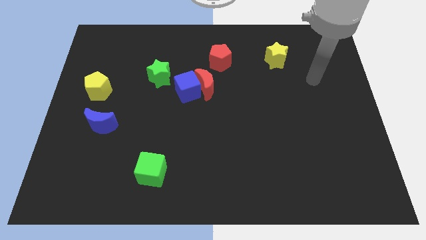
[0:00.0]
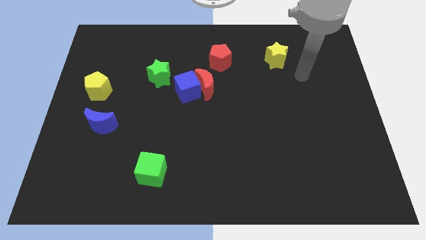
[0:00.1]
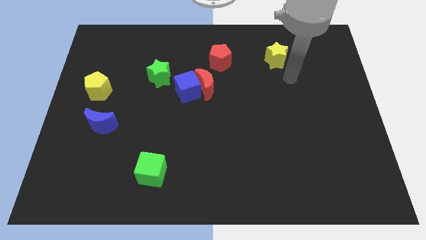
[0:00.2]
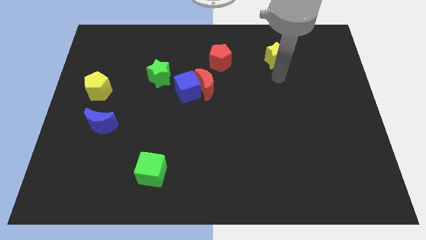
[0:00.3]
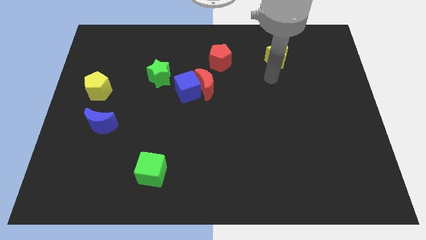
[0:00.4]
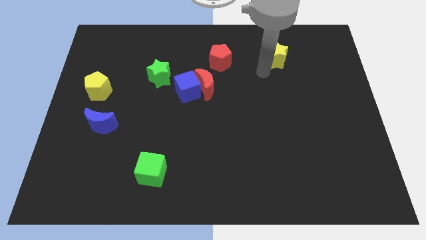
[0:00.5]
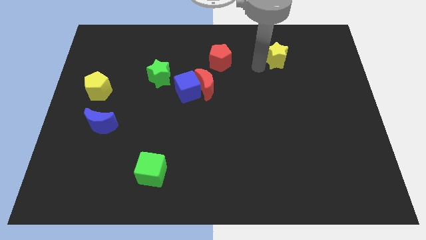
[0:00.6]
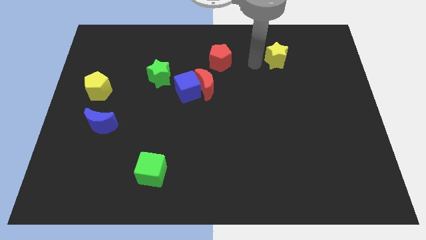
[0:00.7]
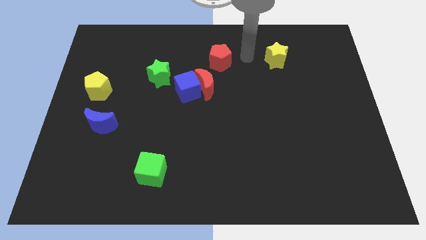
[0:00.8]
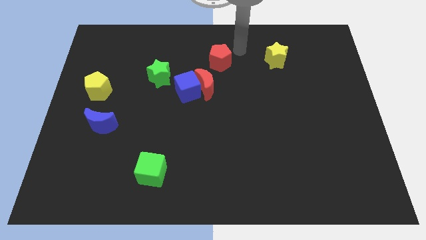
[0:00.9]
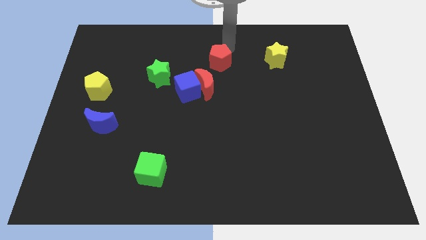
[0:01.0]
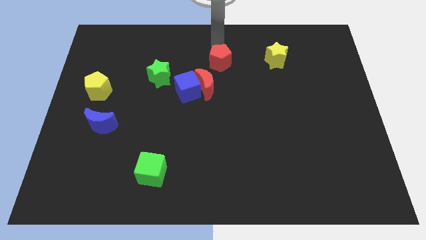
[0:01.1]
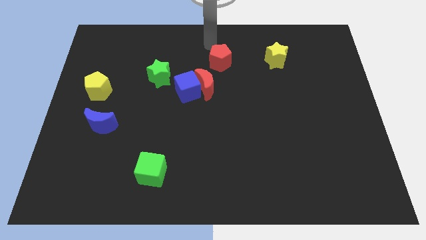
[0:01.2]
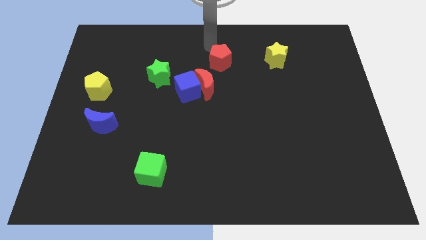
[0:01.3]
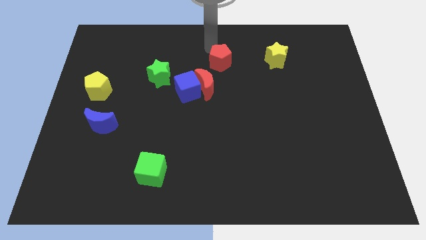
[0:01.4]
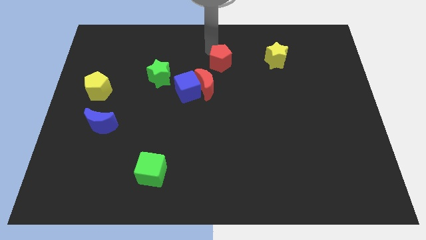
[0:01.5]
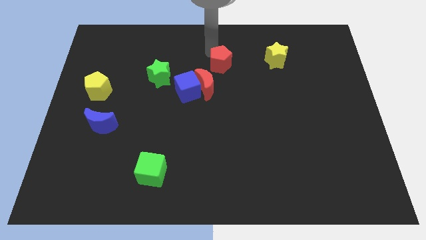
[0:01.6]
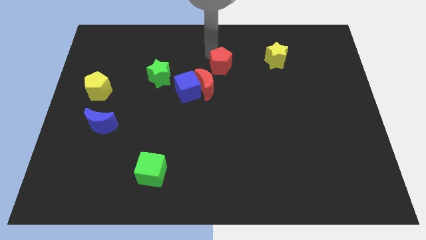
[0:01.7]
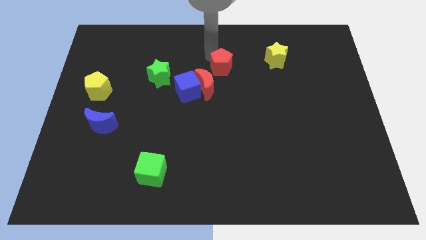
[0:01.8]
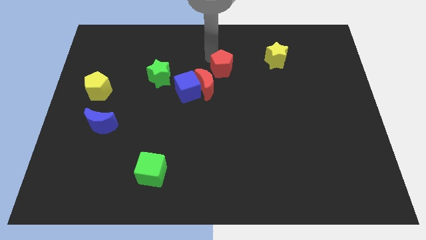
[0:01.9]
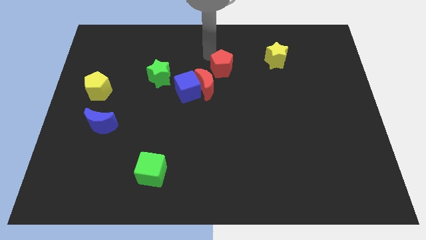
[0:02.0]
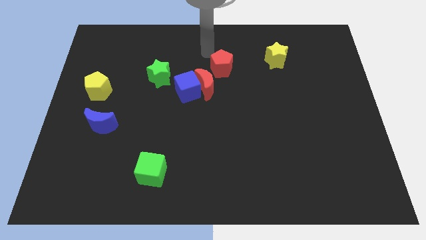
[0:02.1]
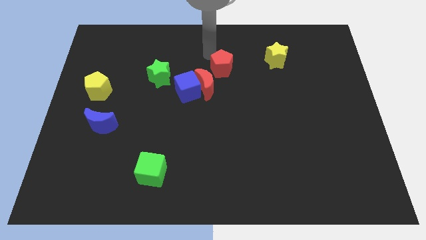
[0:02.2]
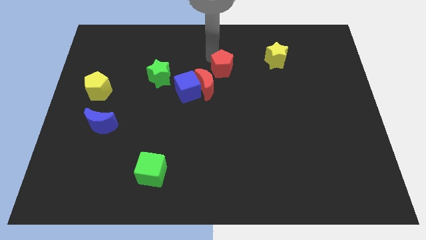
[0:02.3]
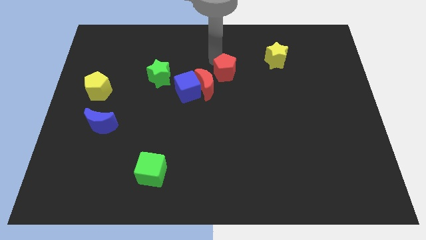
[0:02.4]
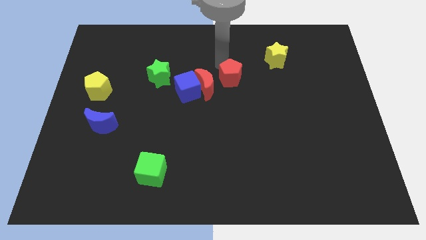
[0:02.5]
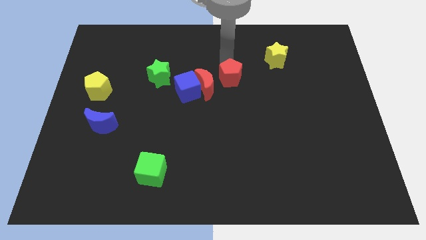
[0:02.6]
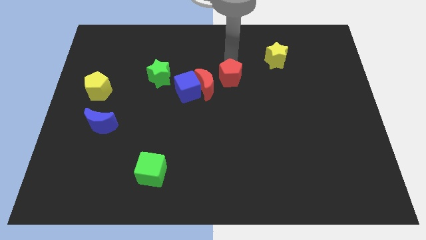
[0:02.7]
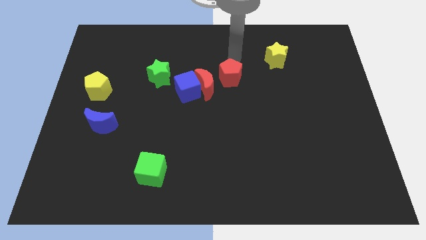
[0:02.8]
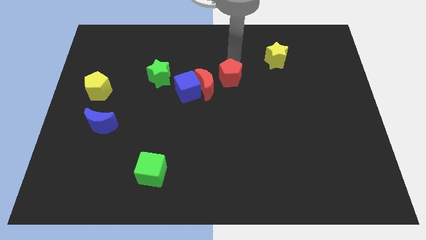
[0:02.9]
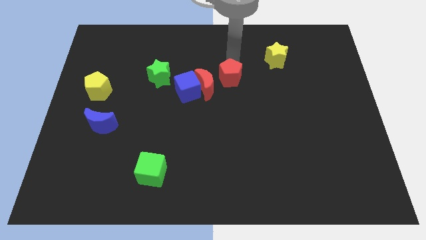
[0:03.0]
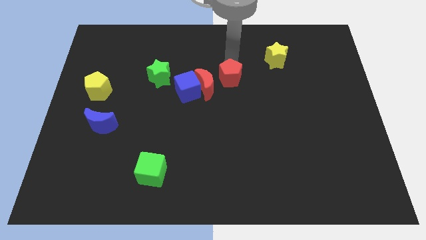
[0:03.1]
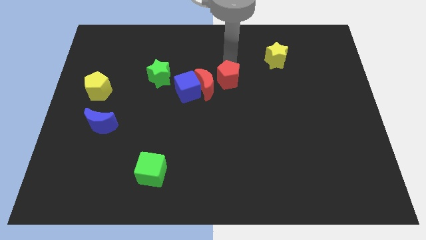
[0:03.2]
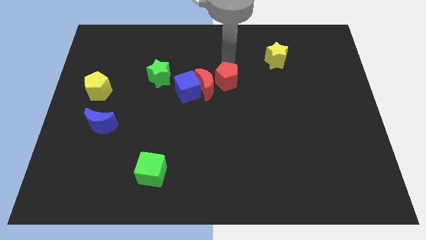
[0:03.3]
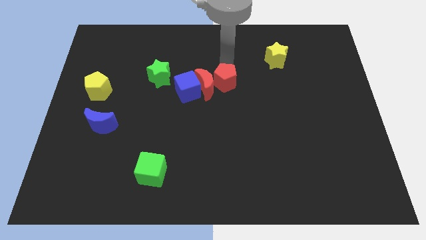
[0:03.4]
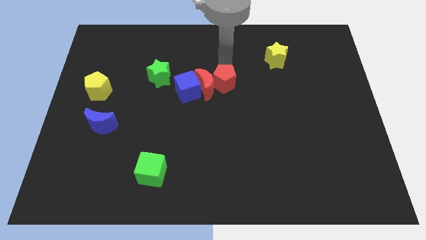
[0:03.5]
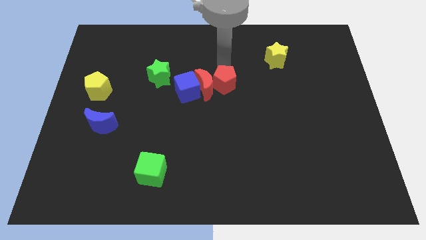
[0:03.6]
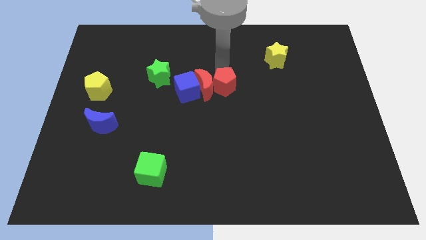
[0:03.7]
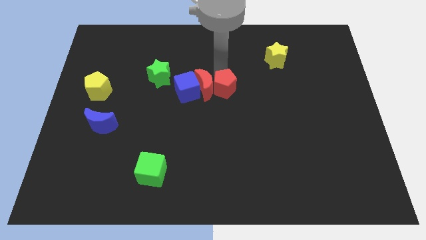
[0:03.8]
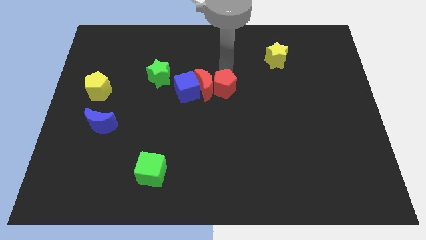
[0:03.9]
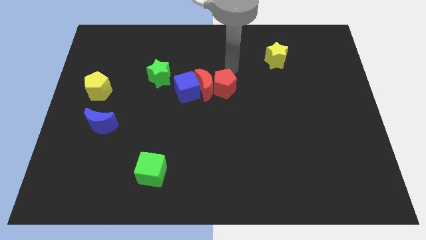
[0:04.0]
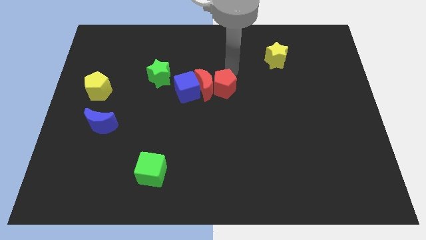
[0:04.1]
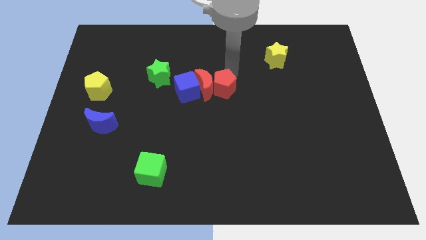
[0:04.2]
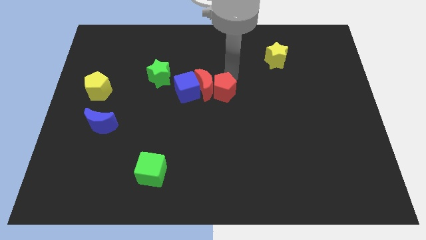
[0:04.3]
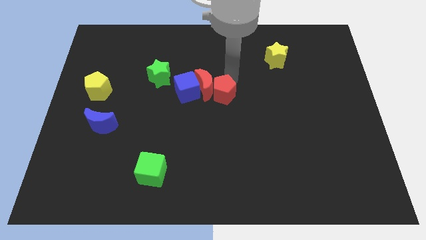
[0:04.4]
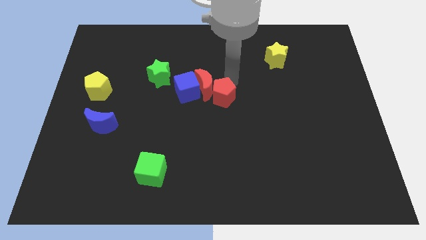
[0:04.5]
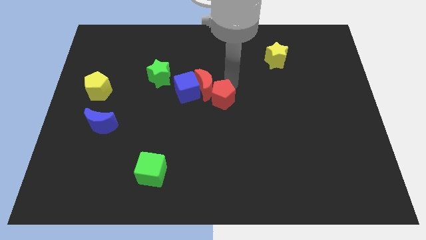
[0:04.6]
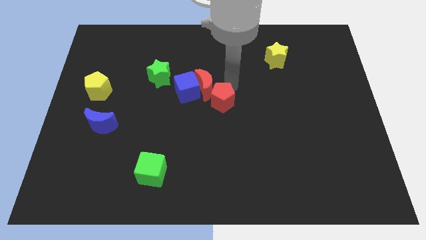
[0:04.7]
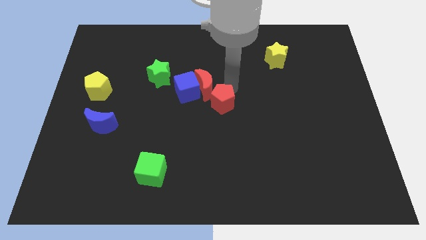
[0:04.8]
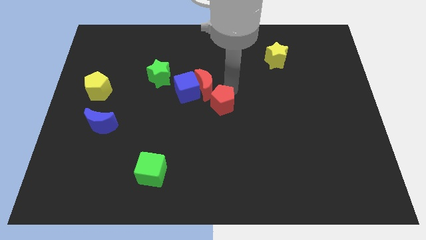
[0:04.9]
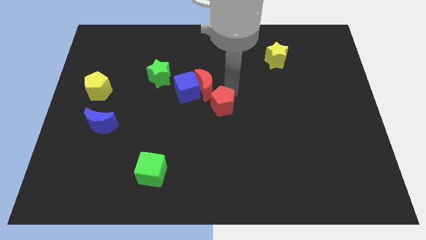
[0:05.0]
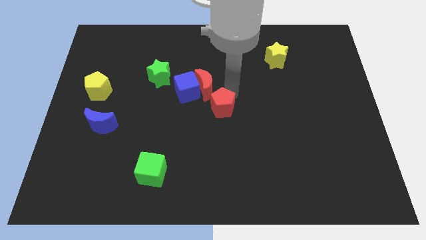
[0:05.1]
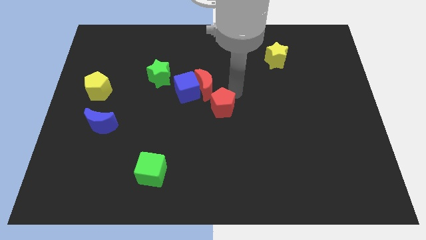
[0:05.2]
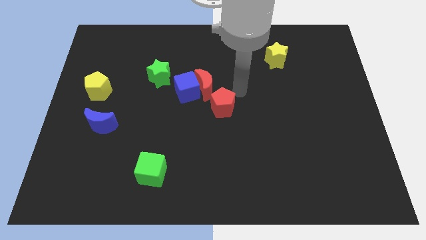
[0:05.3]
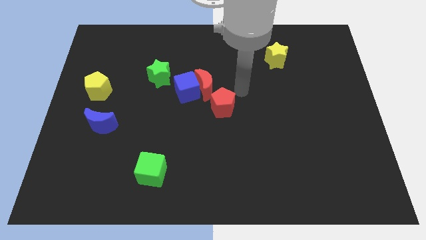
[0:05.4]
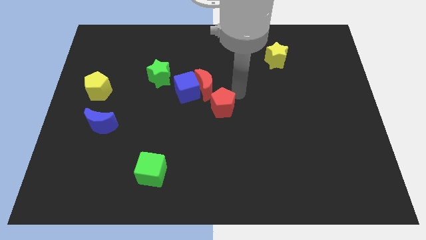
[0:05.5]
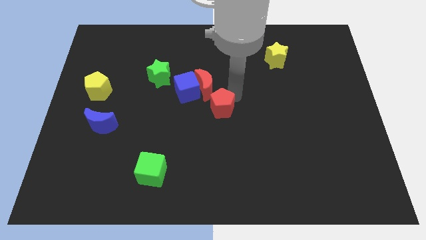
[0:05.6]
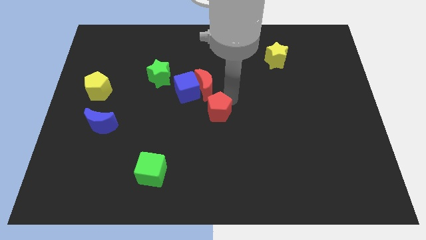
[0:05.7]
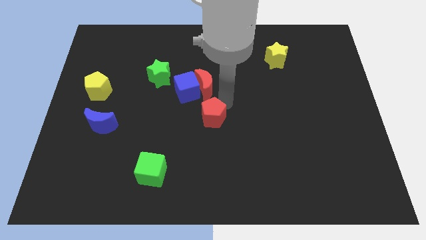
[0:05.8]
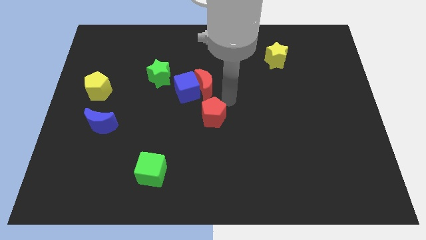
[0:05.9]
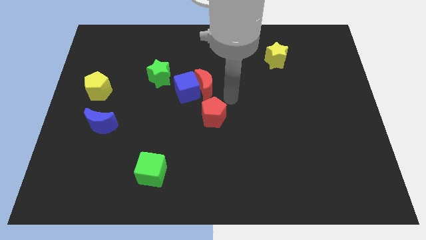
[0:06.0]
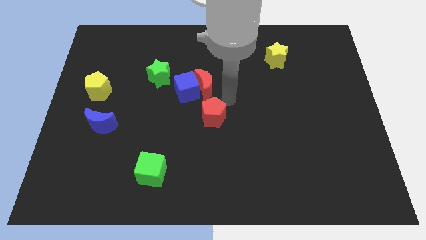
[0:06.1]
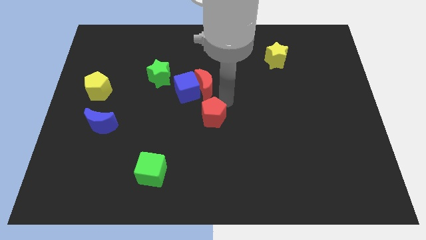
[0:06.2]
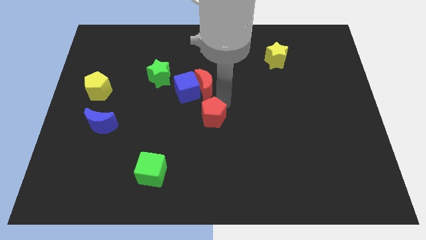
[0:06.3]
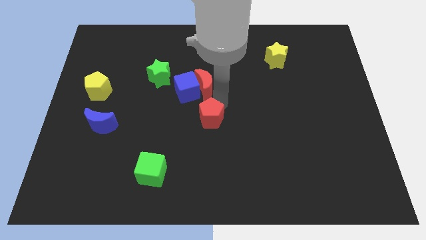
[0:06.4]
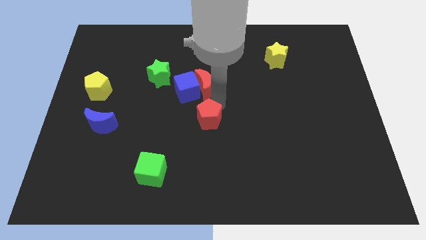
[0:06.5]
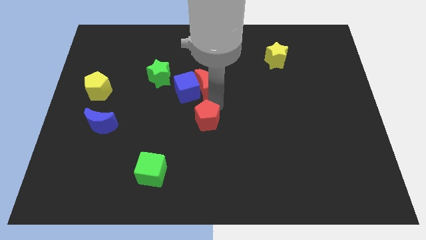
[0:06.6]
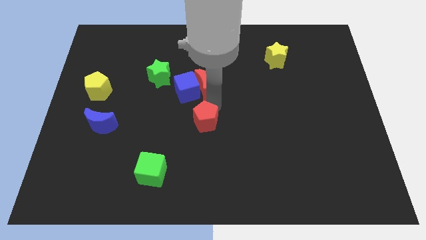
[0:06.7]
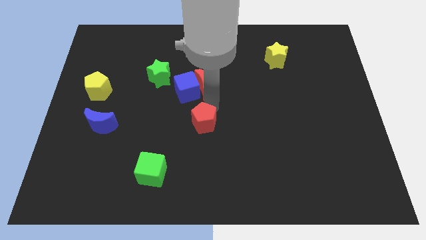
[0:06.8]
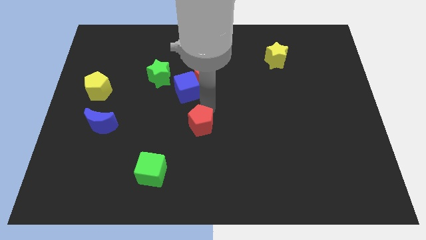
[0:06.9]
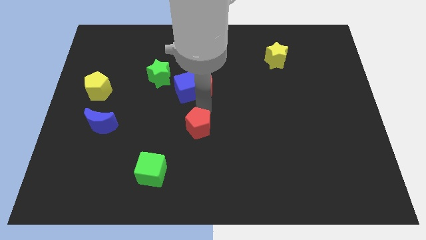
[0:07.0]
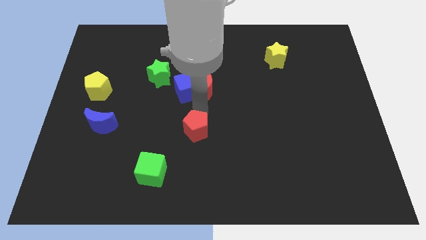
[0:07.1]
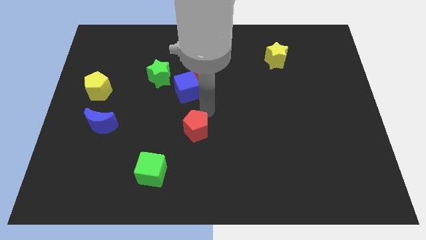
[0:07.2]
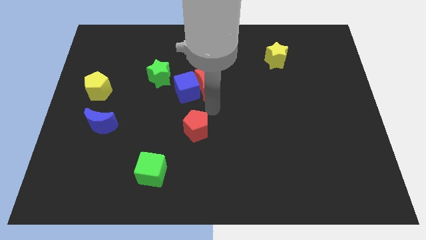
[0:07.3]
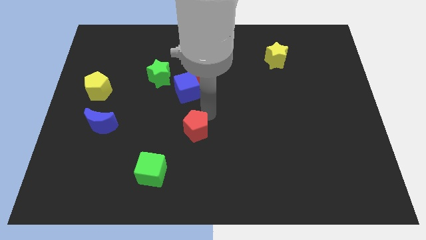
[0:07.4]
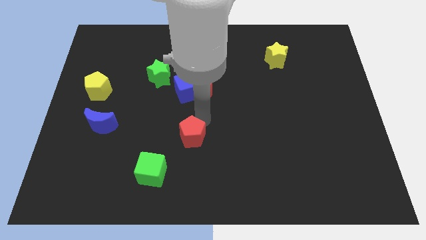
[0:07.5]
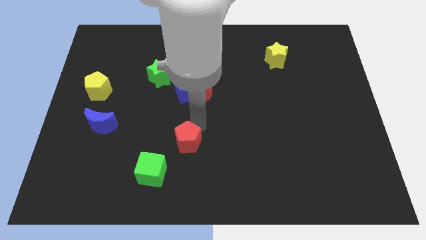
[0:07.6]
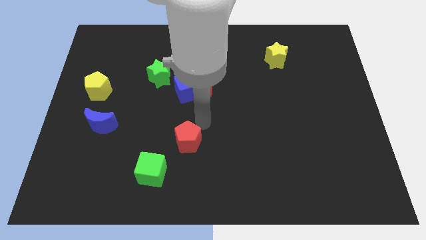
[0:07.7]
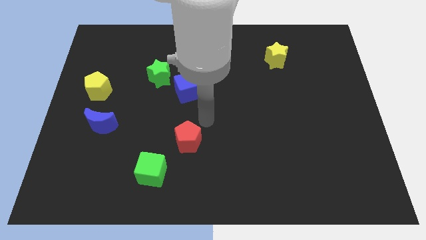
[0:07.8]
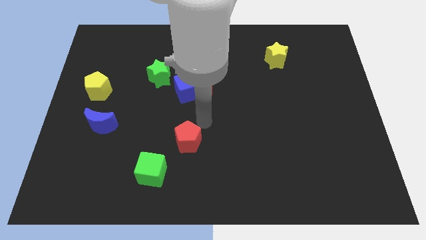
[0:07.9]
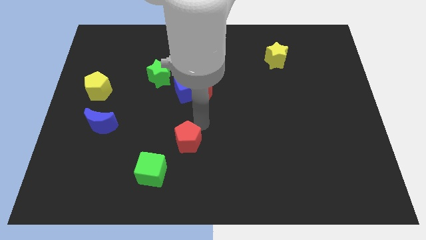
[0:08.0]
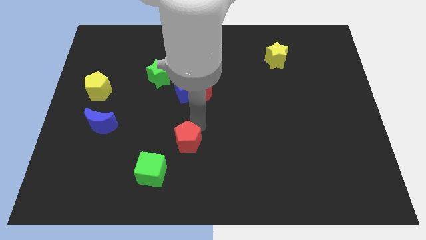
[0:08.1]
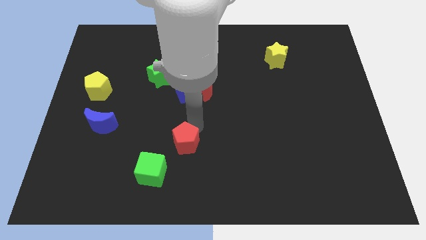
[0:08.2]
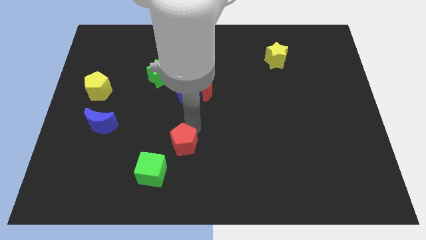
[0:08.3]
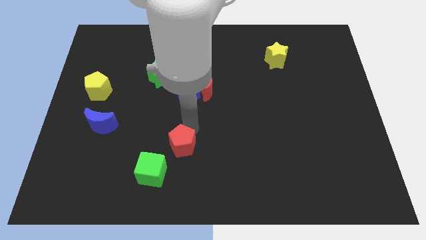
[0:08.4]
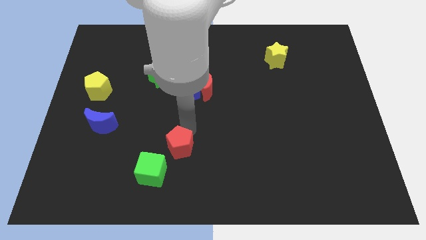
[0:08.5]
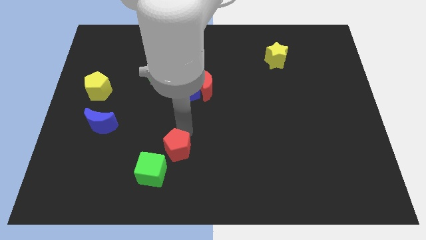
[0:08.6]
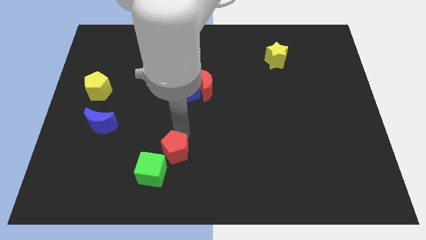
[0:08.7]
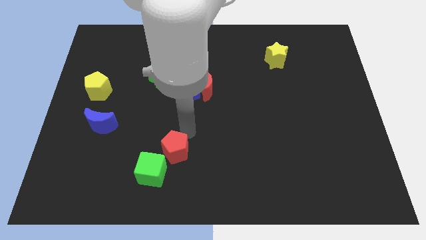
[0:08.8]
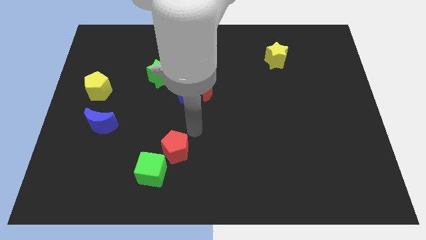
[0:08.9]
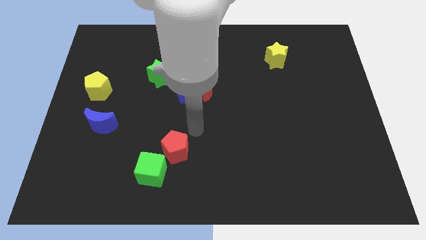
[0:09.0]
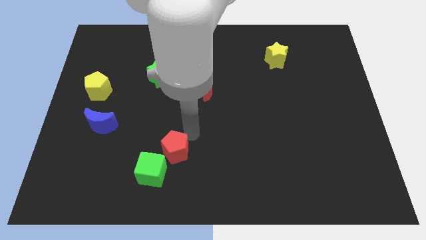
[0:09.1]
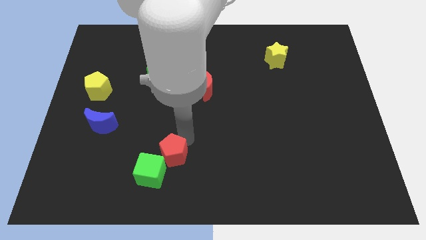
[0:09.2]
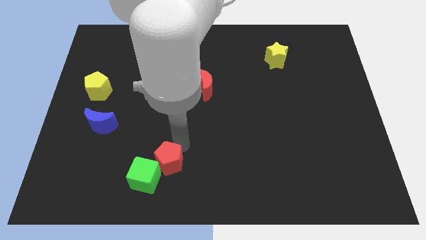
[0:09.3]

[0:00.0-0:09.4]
slide the red pentagon next to the green cube
